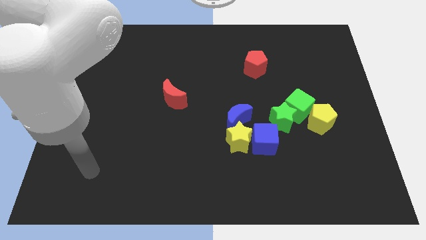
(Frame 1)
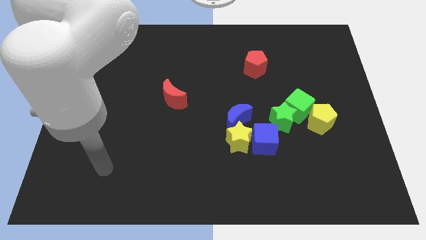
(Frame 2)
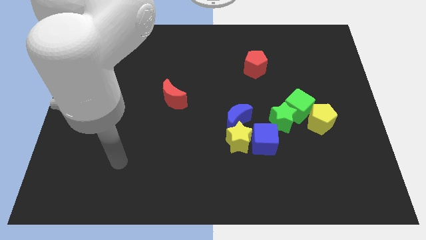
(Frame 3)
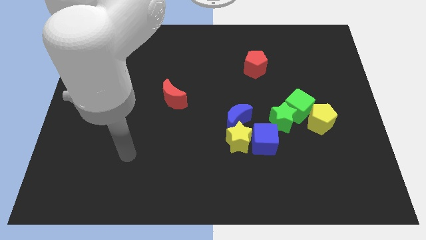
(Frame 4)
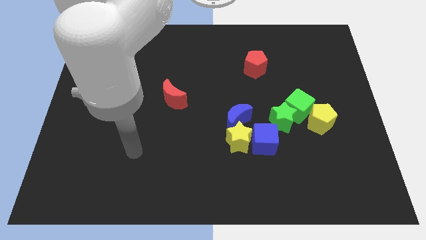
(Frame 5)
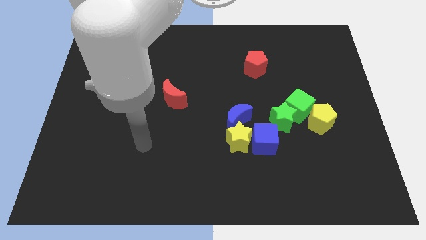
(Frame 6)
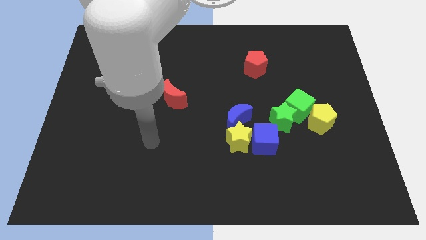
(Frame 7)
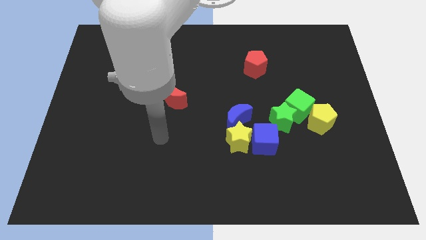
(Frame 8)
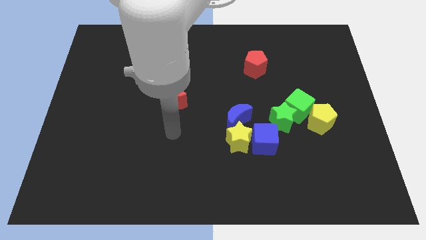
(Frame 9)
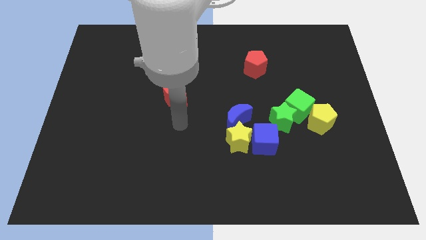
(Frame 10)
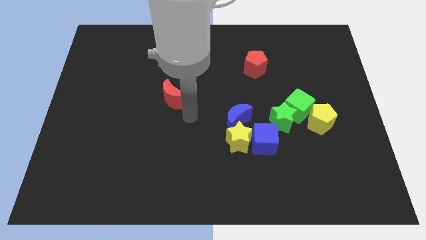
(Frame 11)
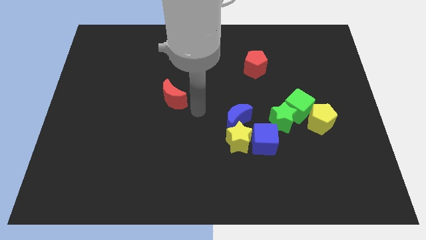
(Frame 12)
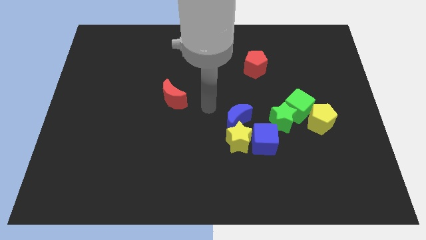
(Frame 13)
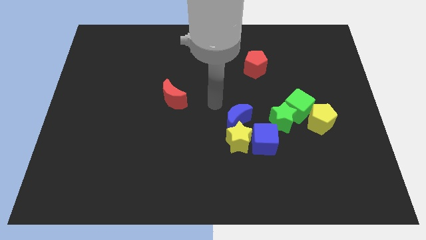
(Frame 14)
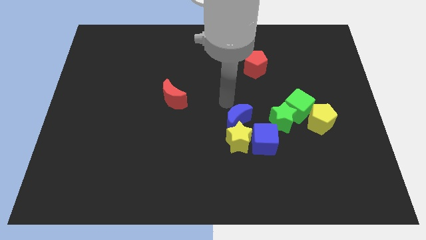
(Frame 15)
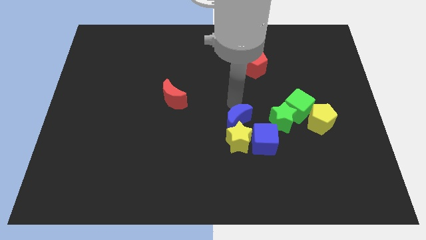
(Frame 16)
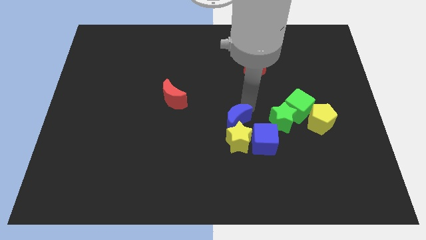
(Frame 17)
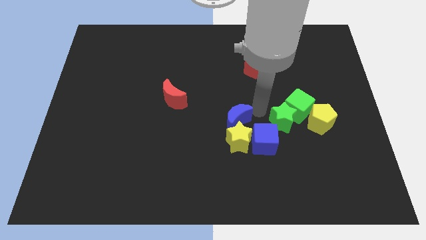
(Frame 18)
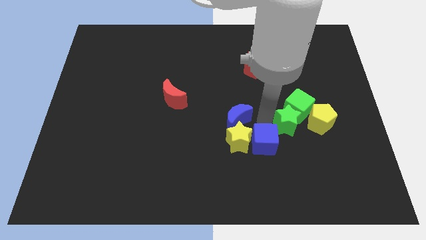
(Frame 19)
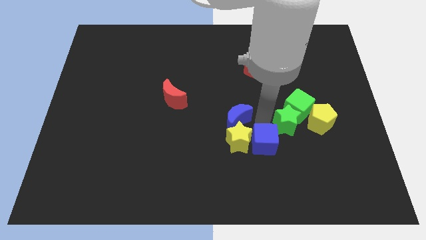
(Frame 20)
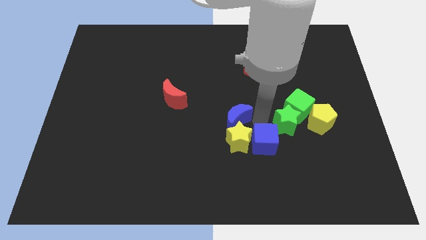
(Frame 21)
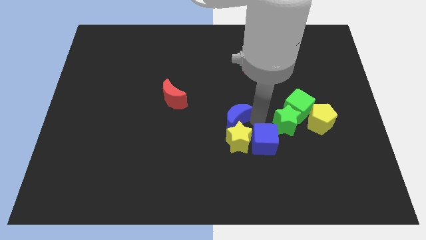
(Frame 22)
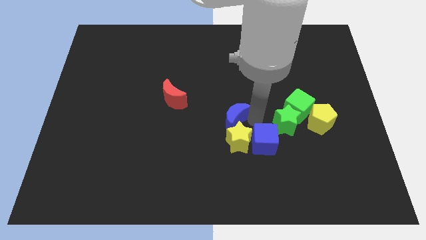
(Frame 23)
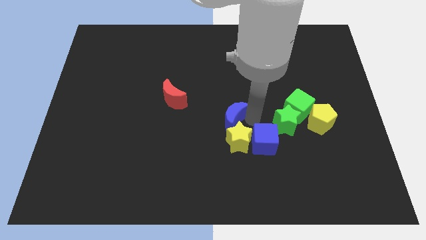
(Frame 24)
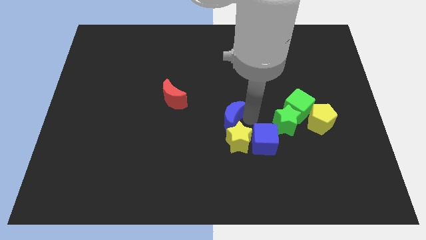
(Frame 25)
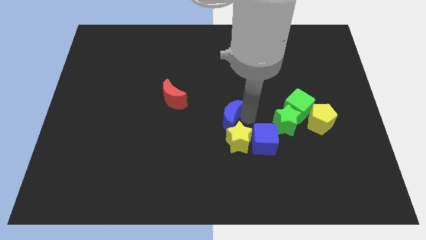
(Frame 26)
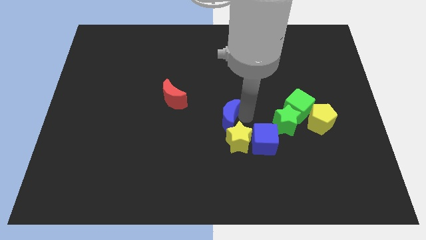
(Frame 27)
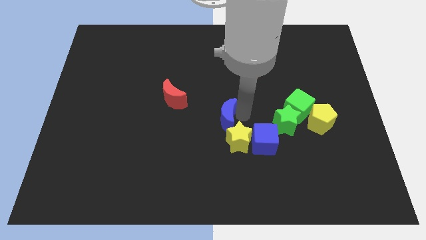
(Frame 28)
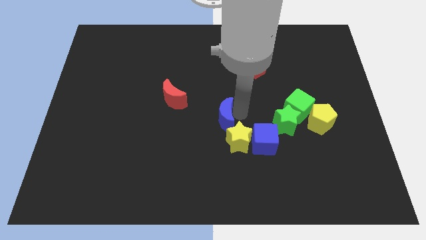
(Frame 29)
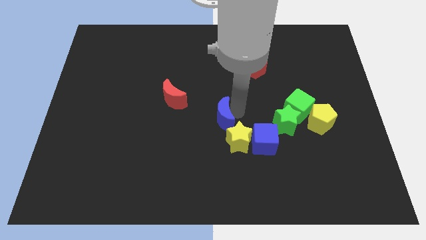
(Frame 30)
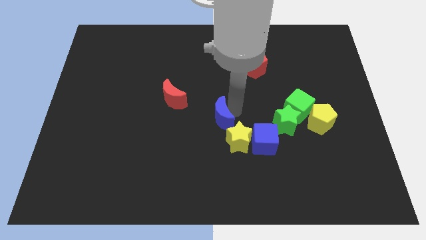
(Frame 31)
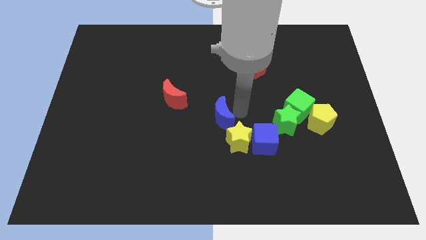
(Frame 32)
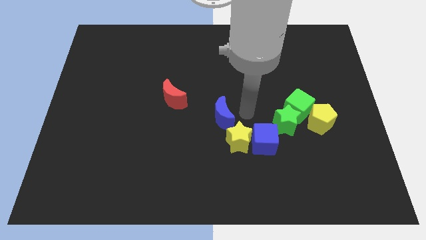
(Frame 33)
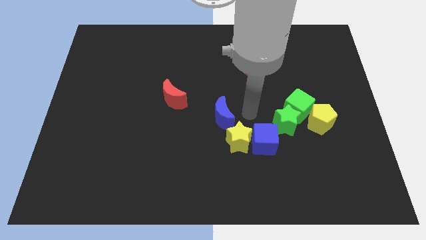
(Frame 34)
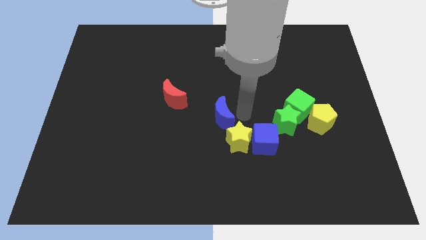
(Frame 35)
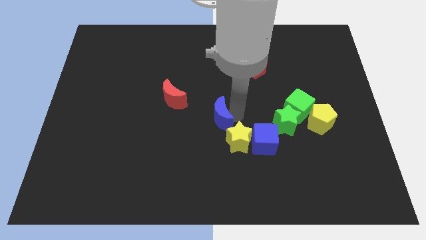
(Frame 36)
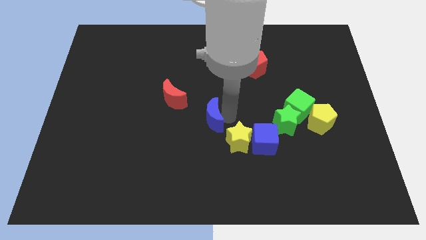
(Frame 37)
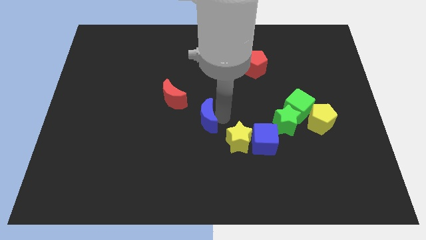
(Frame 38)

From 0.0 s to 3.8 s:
slide the blue moon to the left a little bit

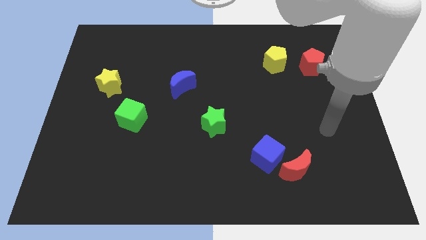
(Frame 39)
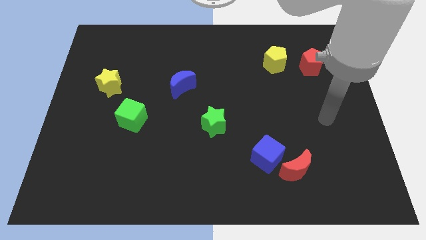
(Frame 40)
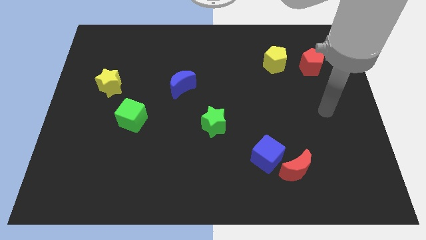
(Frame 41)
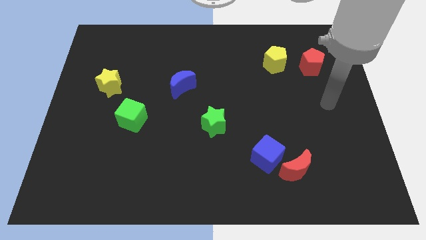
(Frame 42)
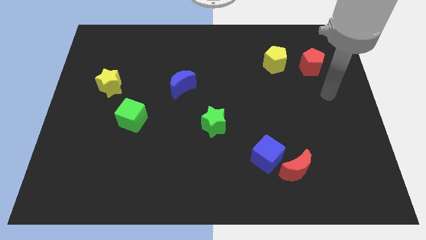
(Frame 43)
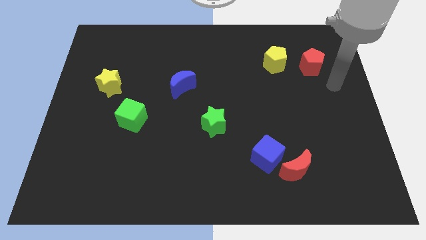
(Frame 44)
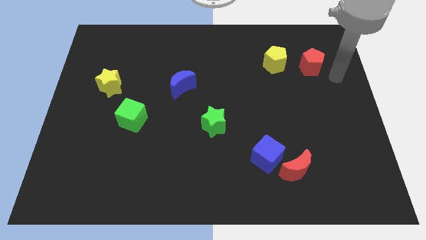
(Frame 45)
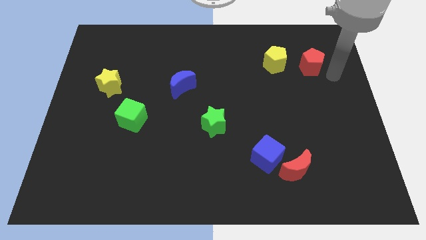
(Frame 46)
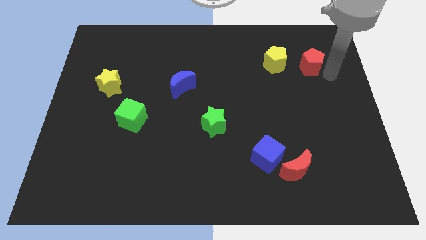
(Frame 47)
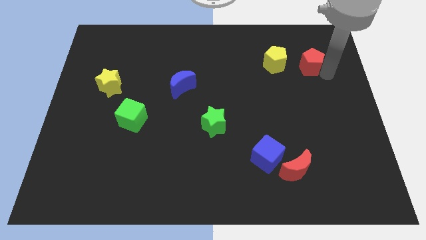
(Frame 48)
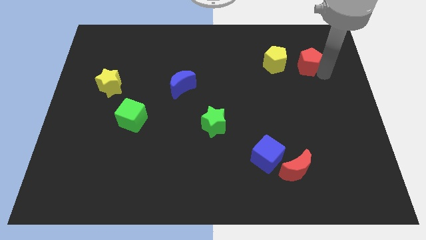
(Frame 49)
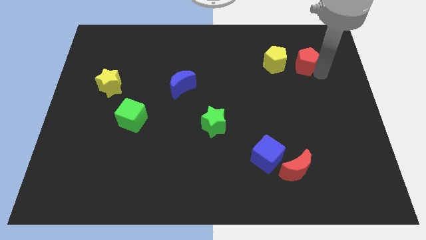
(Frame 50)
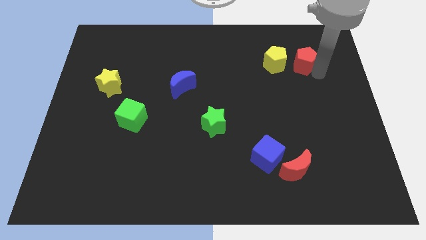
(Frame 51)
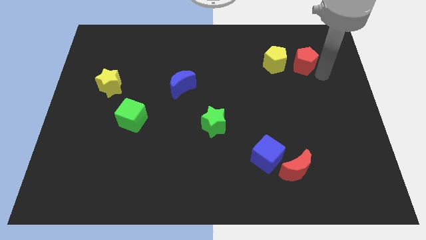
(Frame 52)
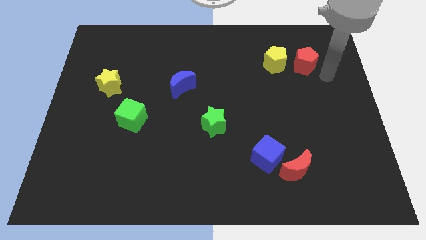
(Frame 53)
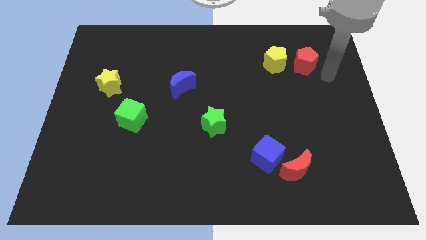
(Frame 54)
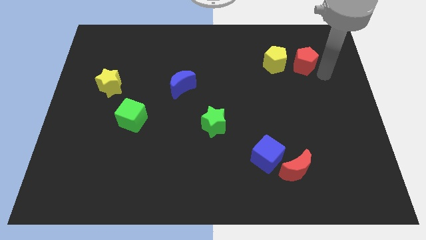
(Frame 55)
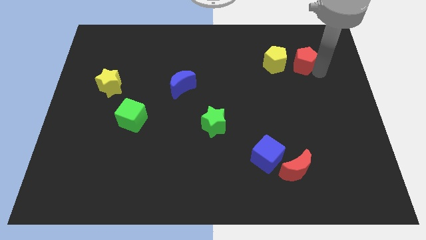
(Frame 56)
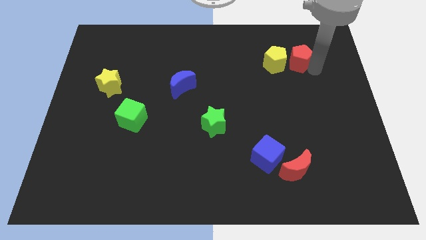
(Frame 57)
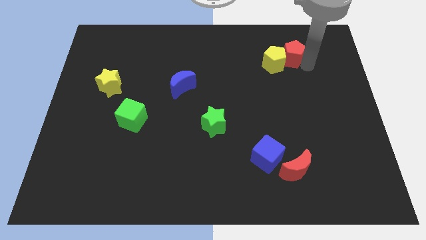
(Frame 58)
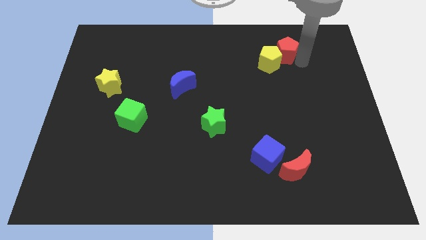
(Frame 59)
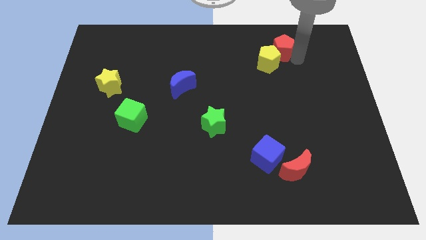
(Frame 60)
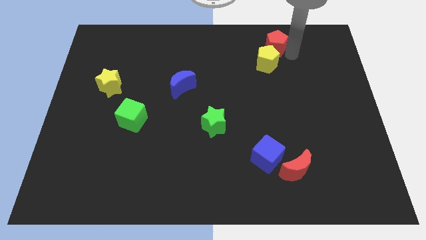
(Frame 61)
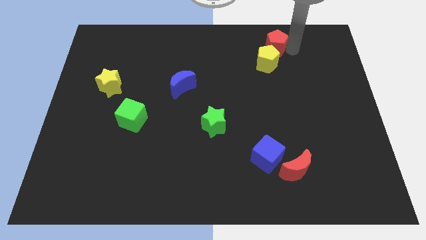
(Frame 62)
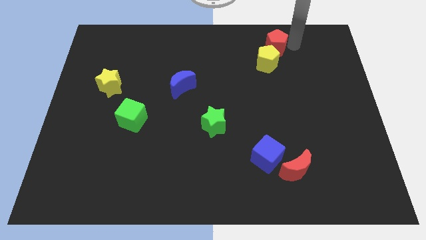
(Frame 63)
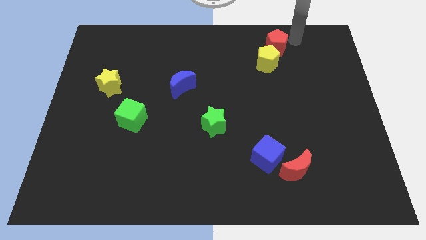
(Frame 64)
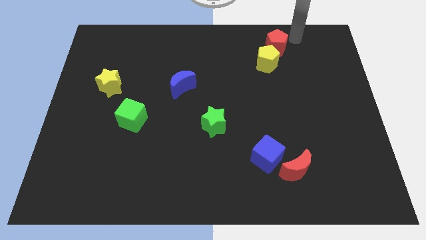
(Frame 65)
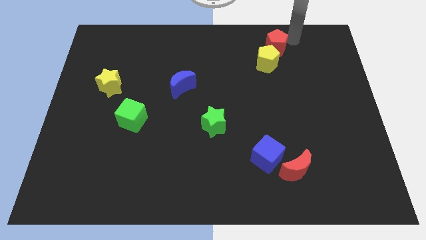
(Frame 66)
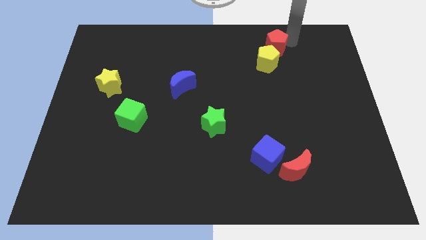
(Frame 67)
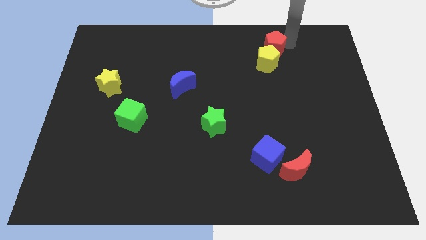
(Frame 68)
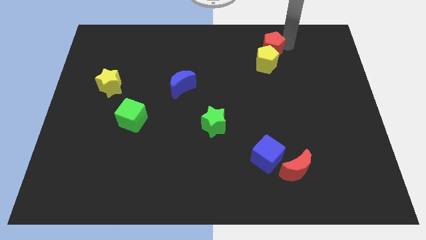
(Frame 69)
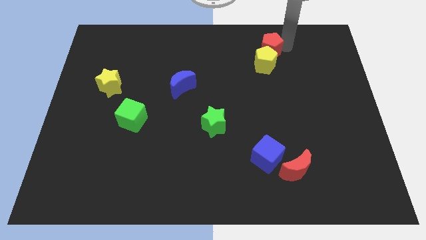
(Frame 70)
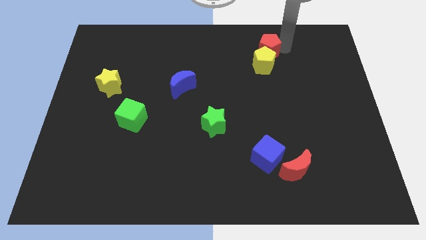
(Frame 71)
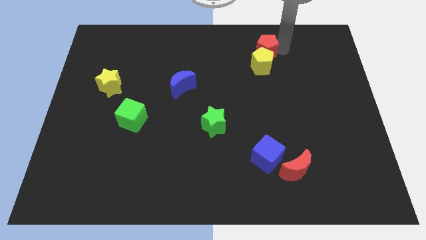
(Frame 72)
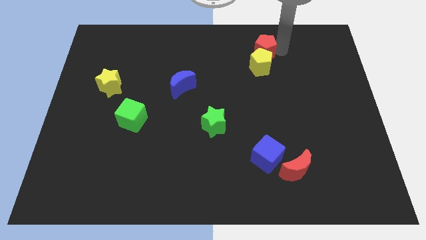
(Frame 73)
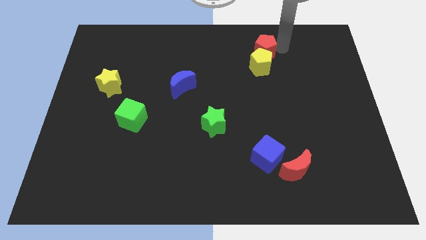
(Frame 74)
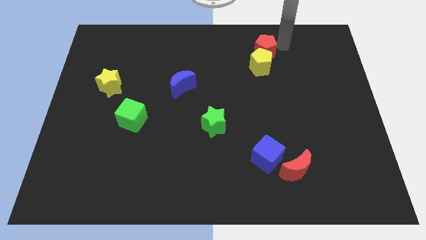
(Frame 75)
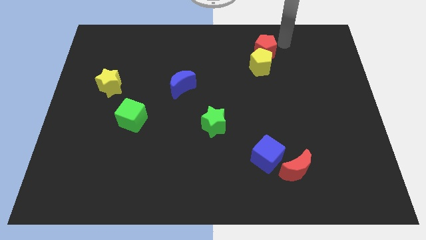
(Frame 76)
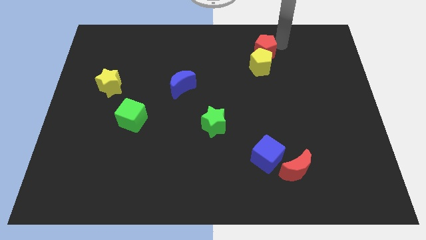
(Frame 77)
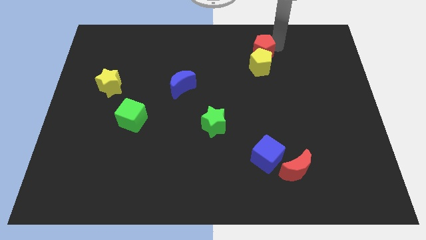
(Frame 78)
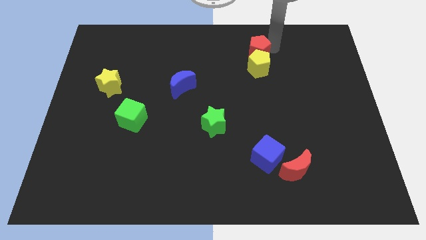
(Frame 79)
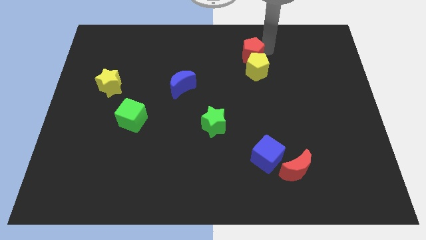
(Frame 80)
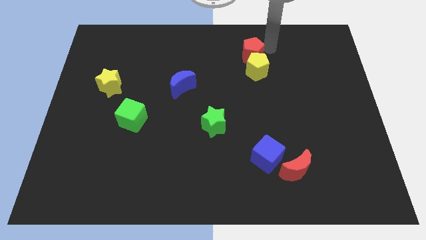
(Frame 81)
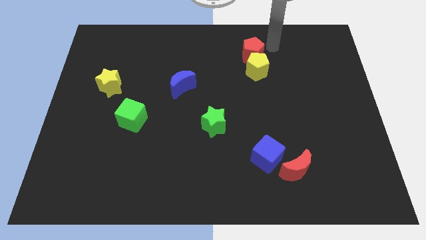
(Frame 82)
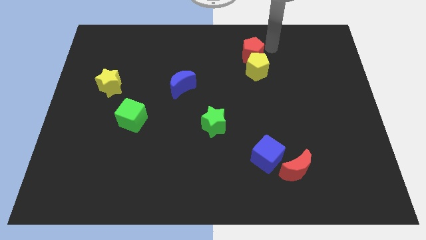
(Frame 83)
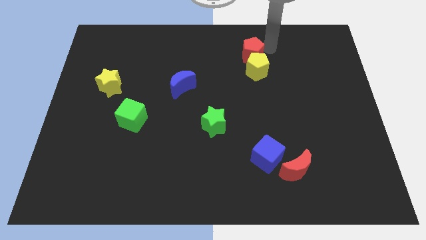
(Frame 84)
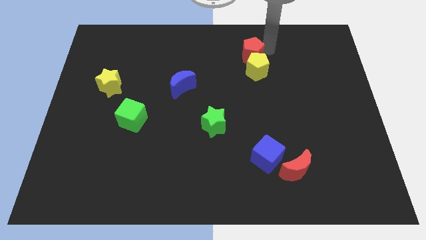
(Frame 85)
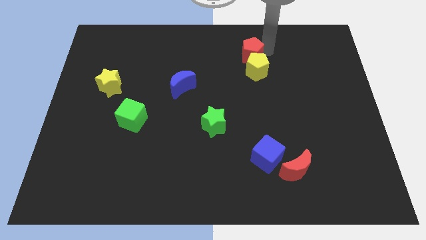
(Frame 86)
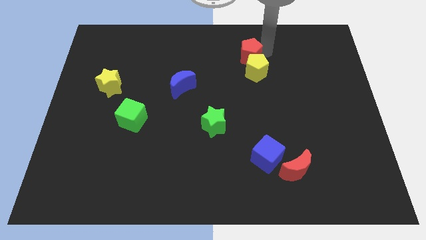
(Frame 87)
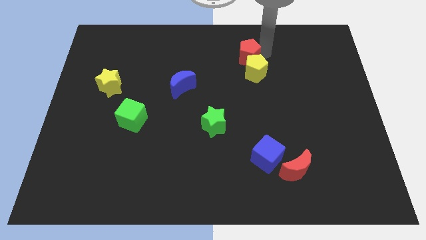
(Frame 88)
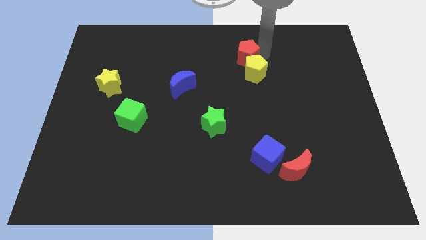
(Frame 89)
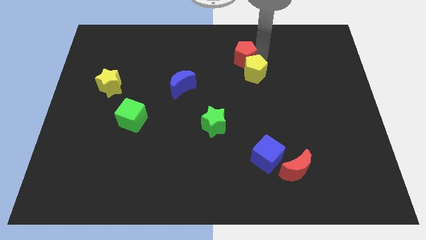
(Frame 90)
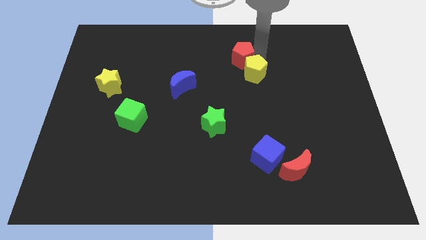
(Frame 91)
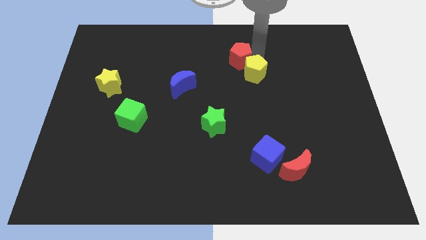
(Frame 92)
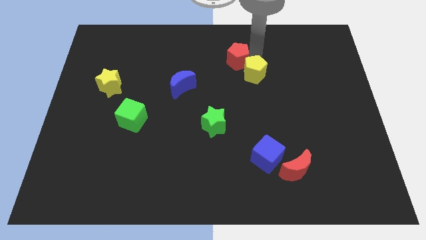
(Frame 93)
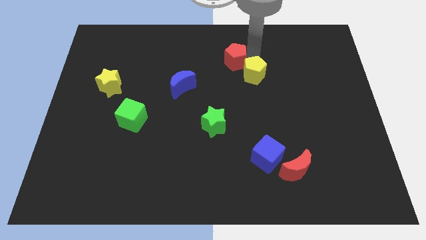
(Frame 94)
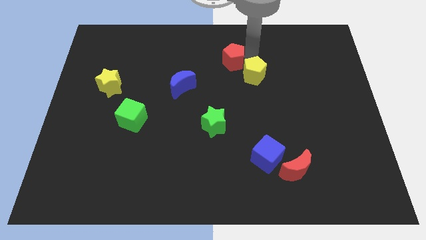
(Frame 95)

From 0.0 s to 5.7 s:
move the red pentagon left
